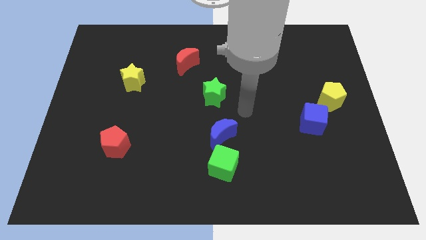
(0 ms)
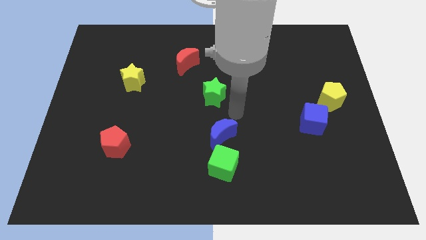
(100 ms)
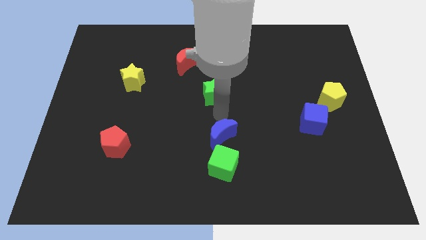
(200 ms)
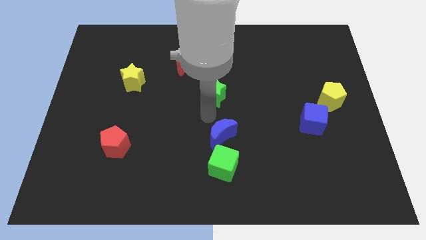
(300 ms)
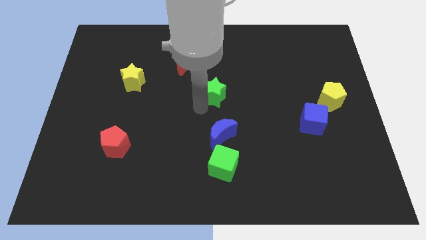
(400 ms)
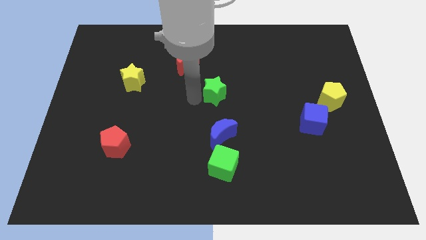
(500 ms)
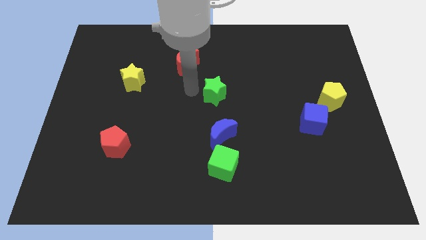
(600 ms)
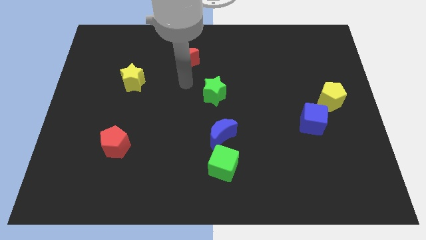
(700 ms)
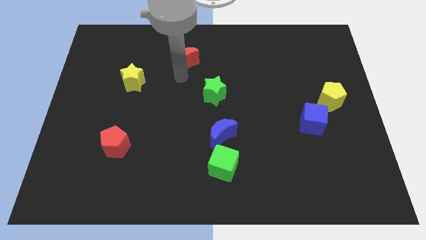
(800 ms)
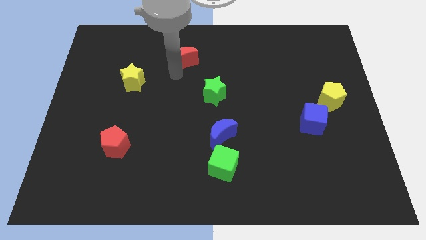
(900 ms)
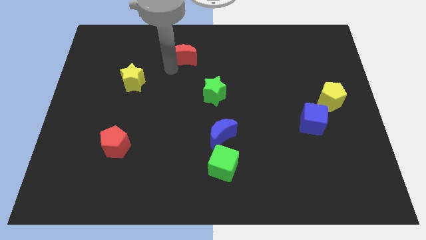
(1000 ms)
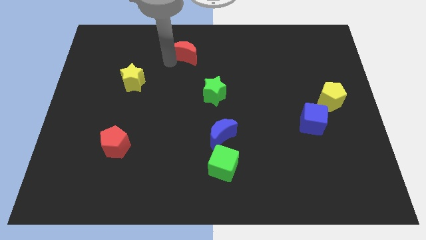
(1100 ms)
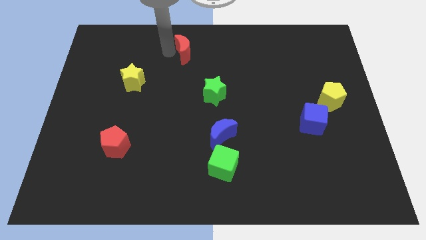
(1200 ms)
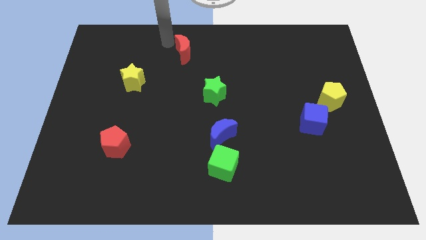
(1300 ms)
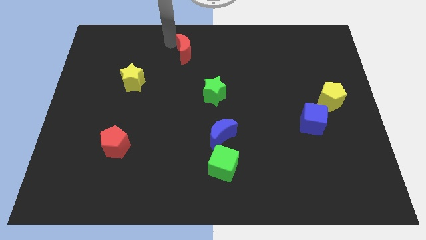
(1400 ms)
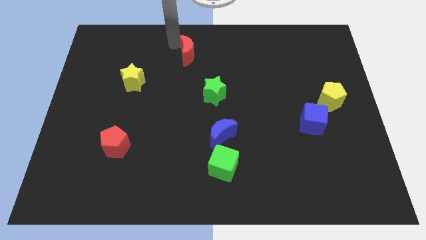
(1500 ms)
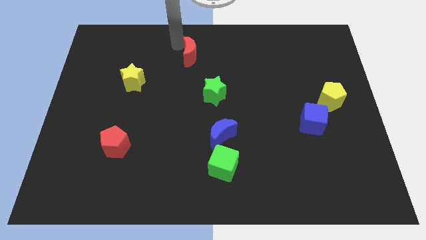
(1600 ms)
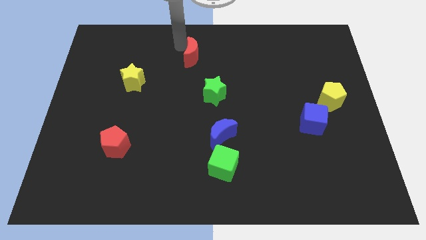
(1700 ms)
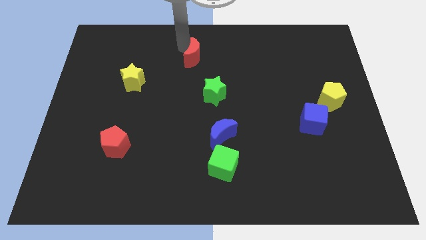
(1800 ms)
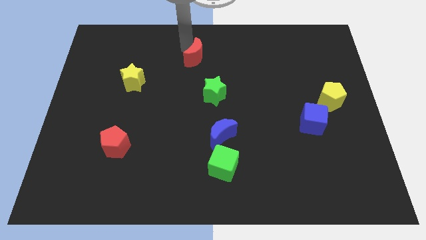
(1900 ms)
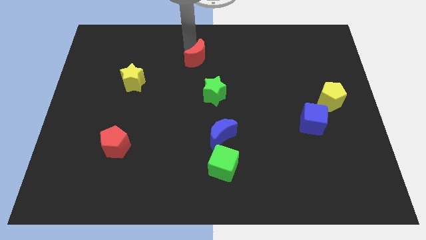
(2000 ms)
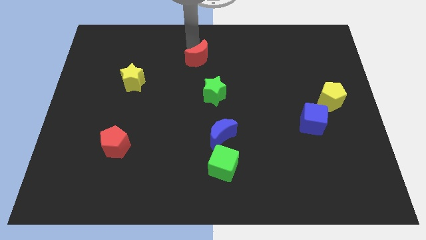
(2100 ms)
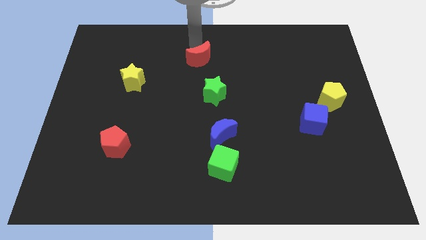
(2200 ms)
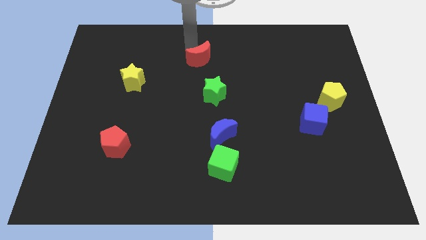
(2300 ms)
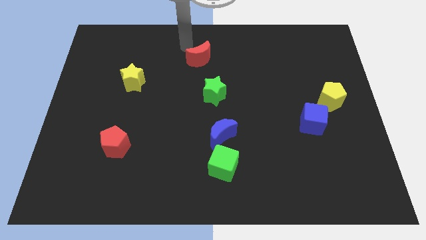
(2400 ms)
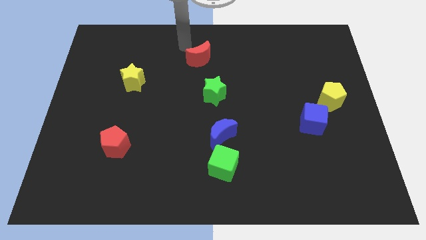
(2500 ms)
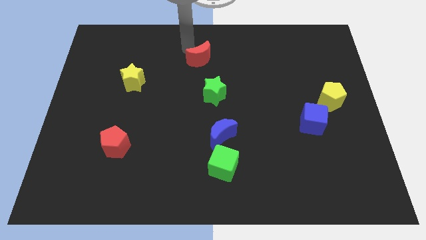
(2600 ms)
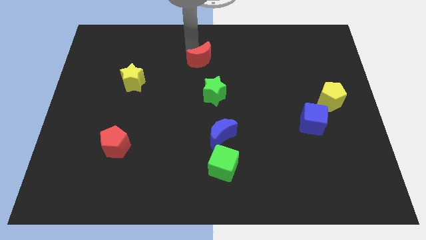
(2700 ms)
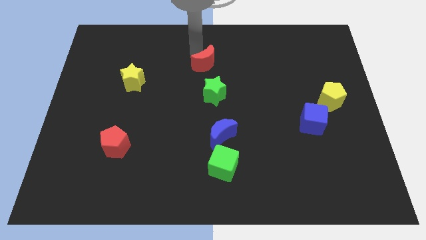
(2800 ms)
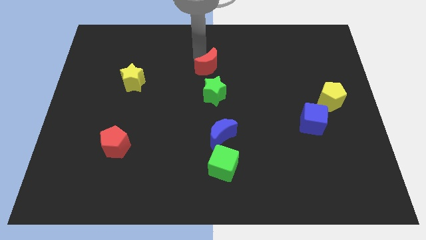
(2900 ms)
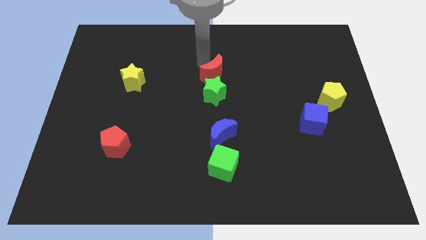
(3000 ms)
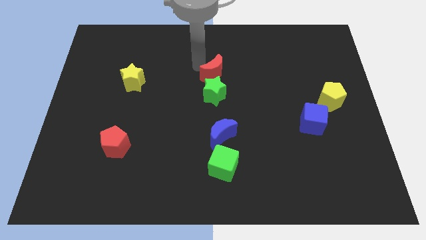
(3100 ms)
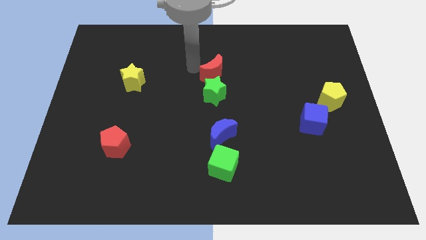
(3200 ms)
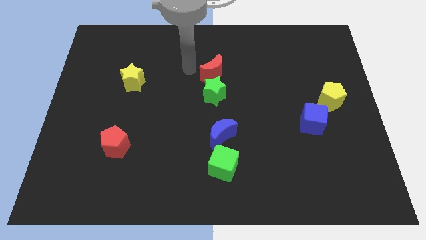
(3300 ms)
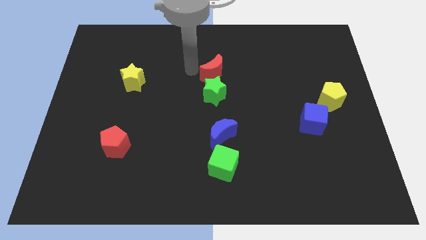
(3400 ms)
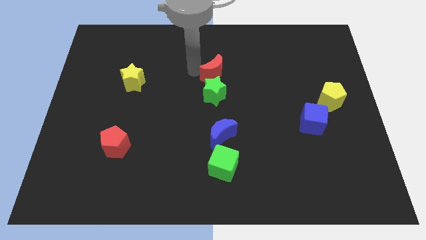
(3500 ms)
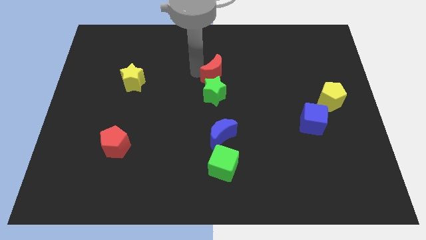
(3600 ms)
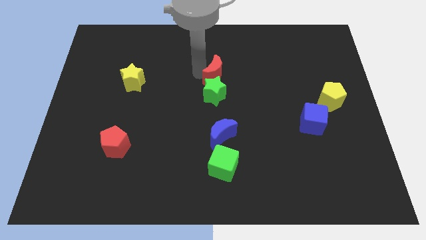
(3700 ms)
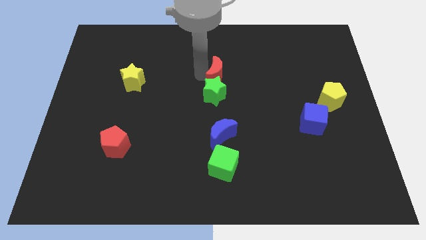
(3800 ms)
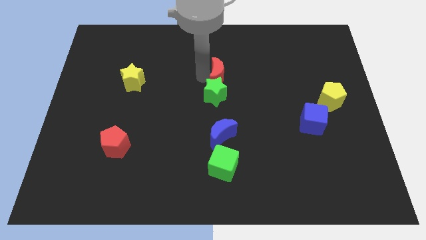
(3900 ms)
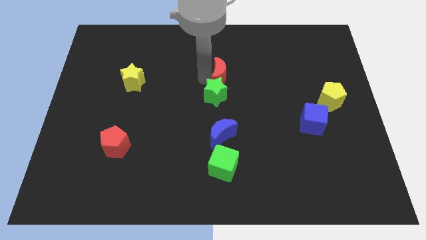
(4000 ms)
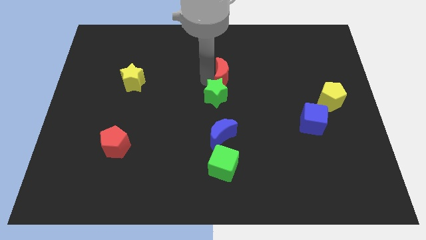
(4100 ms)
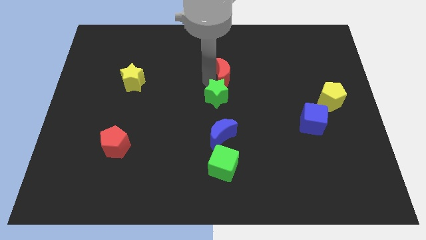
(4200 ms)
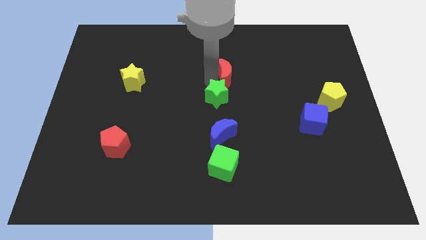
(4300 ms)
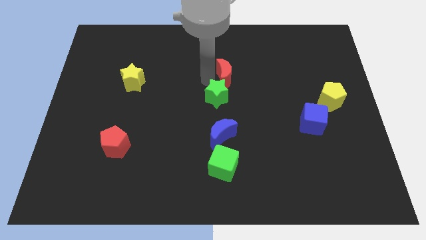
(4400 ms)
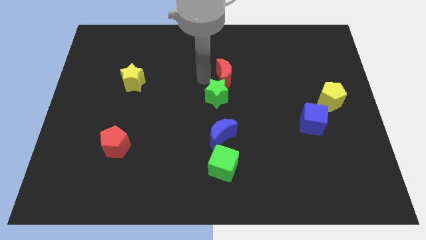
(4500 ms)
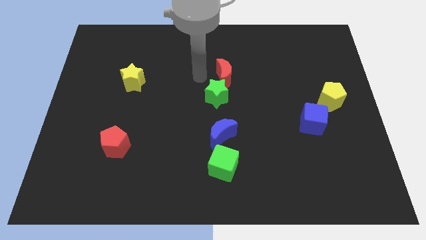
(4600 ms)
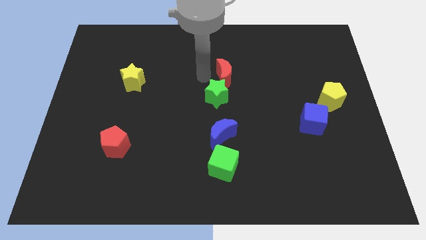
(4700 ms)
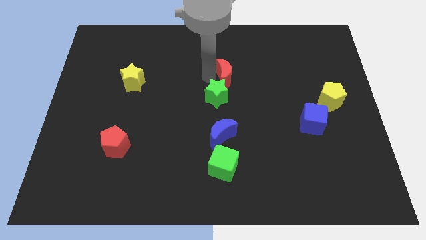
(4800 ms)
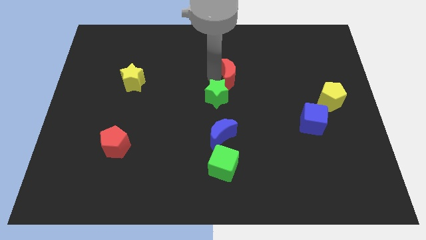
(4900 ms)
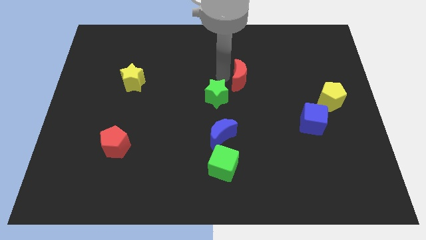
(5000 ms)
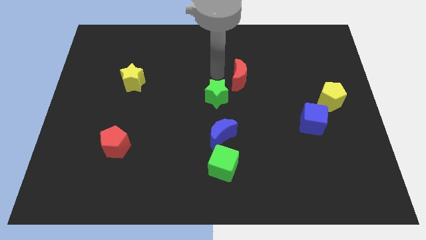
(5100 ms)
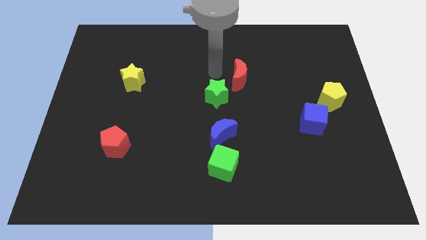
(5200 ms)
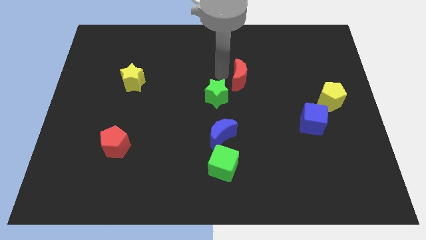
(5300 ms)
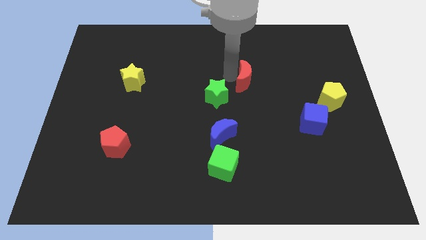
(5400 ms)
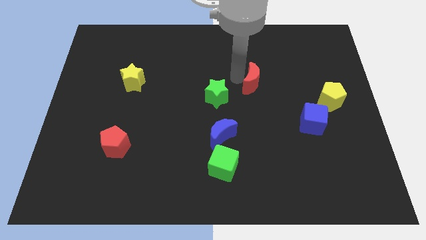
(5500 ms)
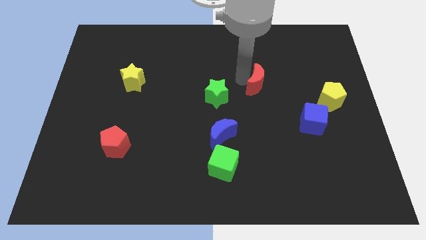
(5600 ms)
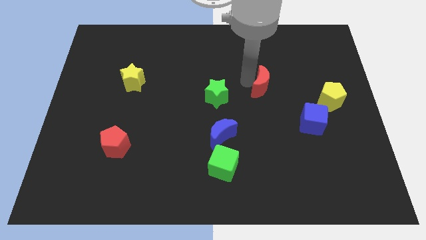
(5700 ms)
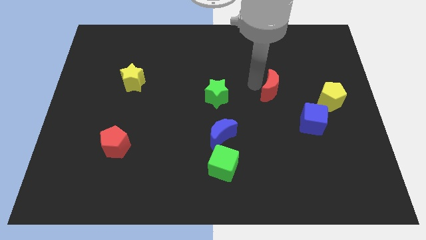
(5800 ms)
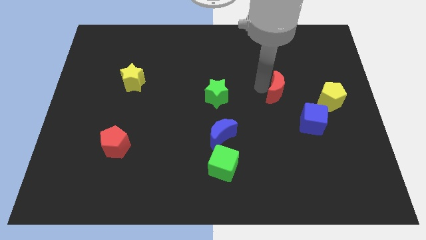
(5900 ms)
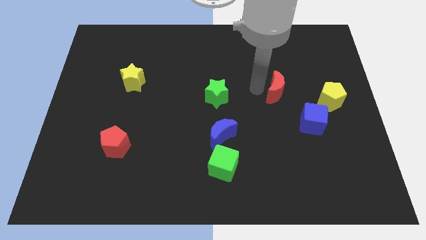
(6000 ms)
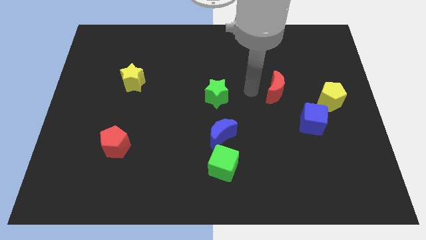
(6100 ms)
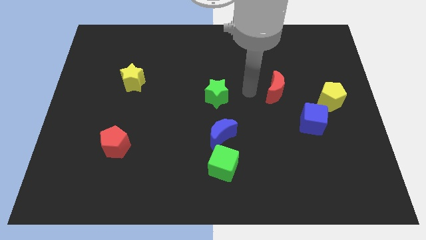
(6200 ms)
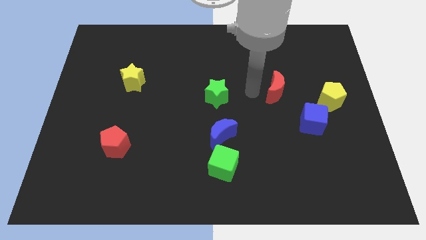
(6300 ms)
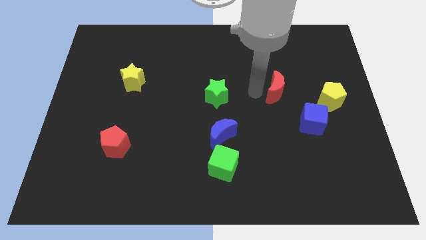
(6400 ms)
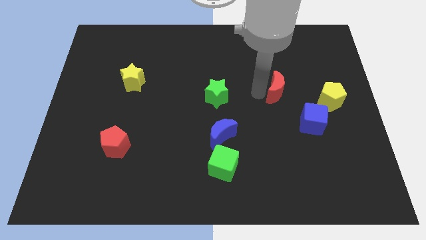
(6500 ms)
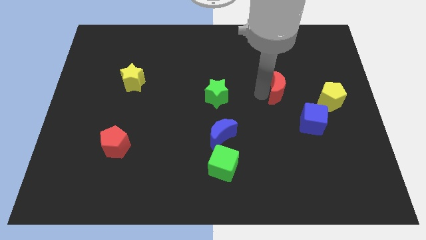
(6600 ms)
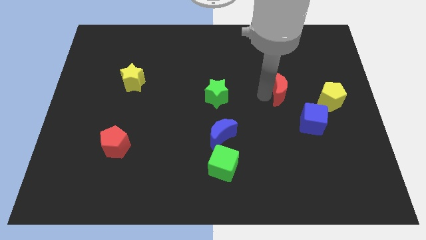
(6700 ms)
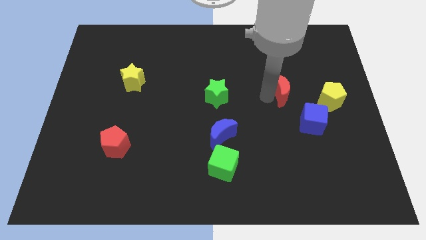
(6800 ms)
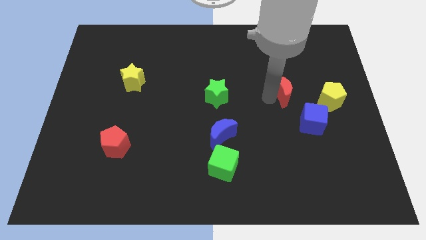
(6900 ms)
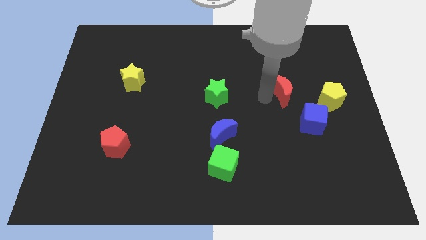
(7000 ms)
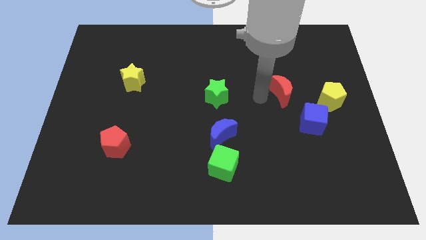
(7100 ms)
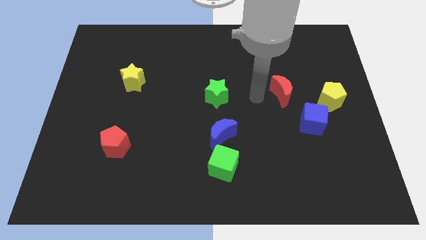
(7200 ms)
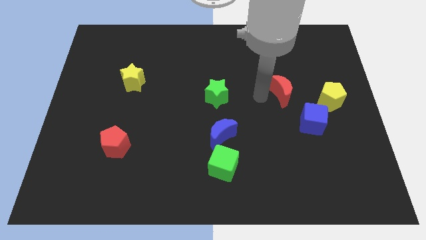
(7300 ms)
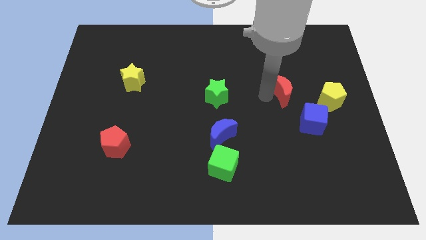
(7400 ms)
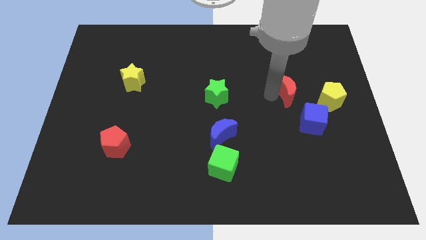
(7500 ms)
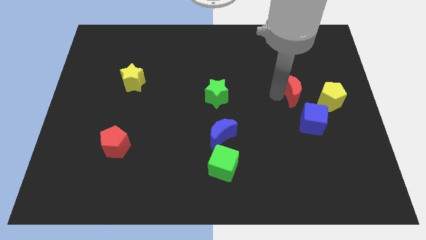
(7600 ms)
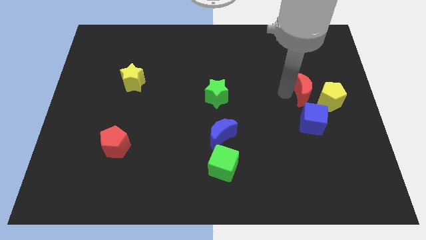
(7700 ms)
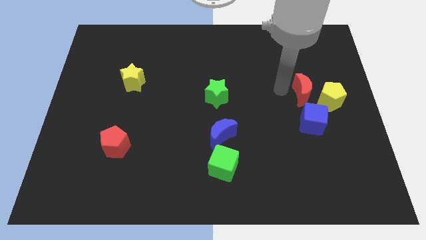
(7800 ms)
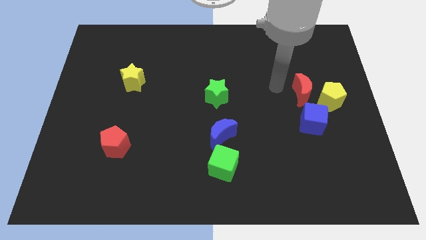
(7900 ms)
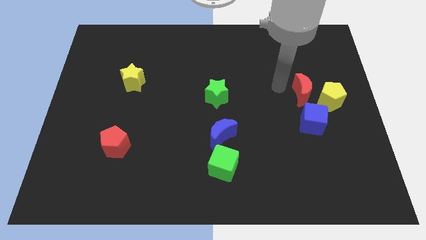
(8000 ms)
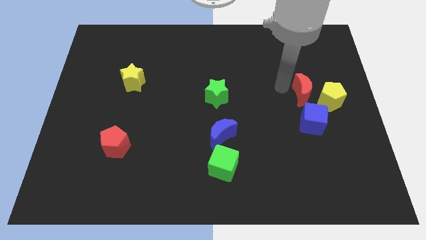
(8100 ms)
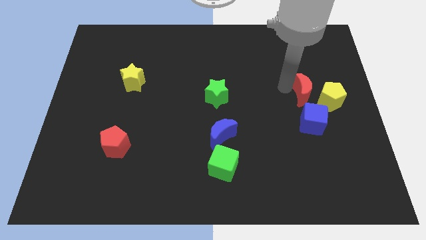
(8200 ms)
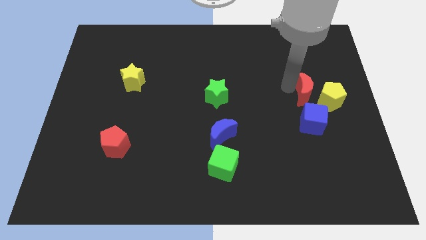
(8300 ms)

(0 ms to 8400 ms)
move the red moon to the yellow pentagon
